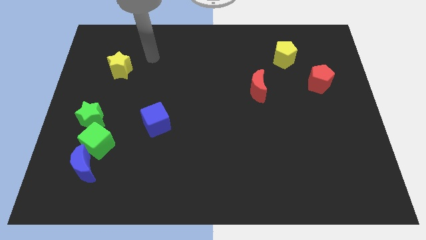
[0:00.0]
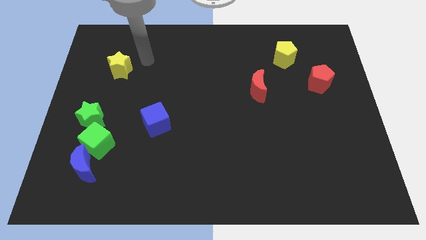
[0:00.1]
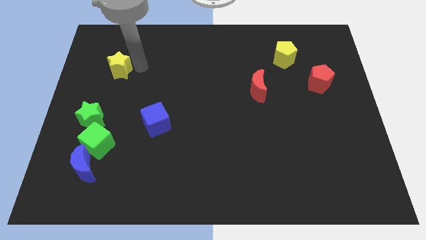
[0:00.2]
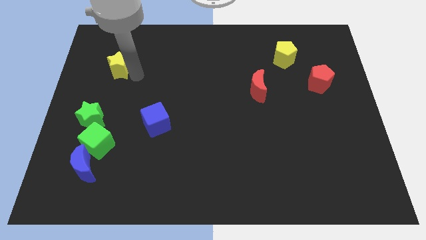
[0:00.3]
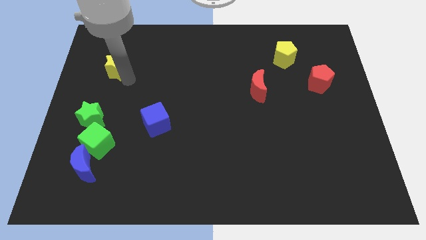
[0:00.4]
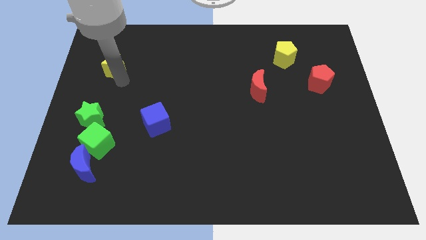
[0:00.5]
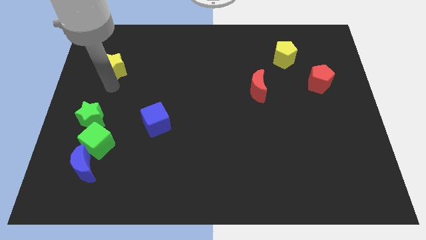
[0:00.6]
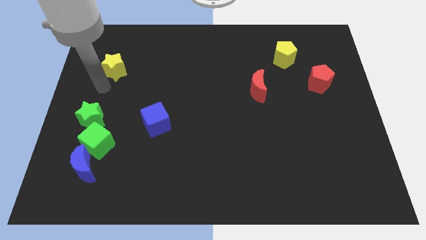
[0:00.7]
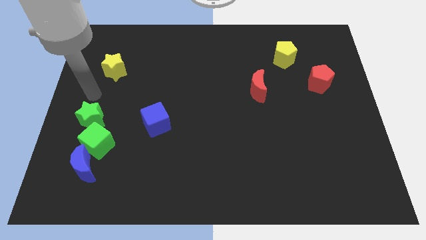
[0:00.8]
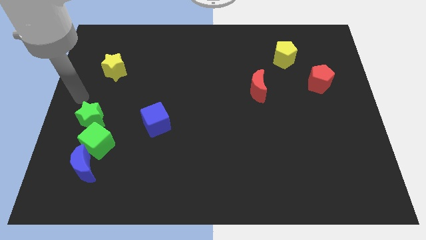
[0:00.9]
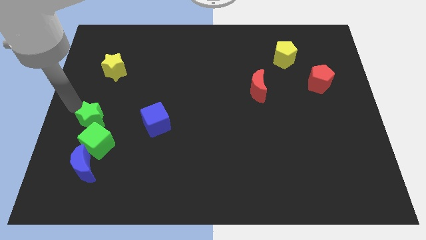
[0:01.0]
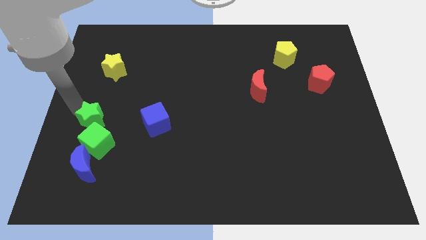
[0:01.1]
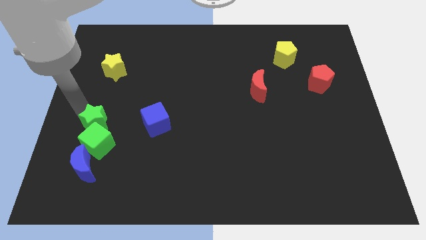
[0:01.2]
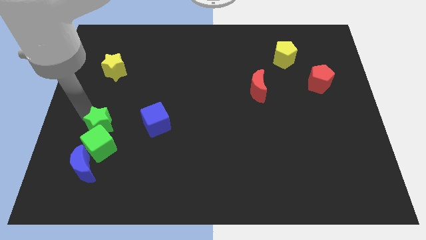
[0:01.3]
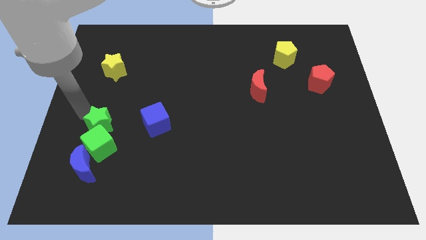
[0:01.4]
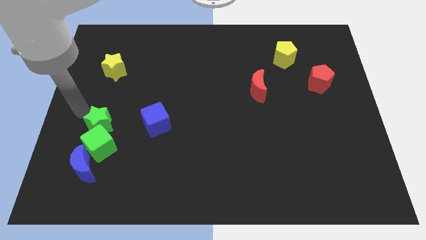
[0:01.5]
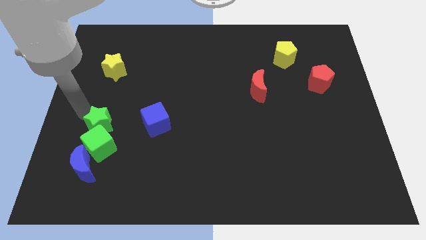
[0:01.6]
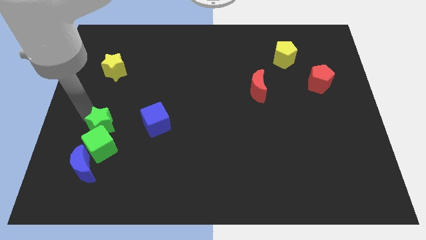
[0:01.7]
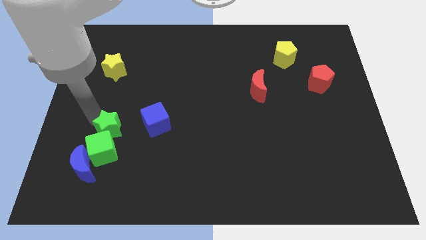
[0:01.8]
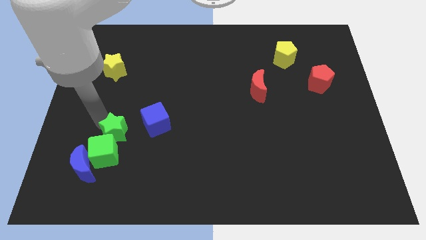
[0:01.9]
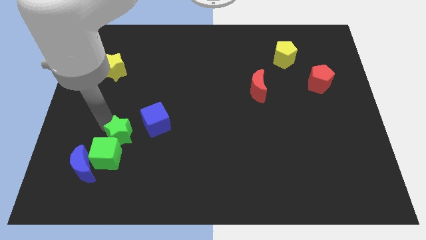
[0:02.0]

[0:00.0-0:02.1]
push the green star a little bit downwards and to the right diagonally

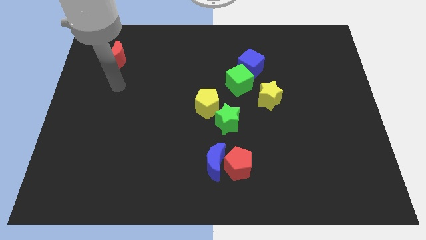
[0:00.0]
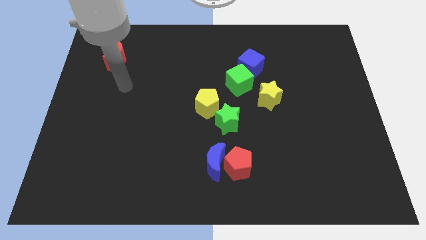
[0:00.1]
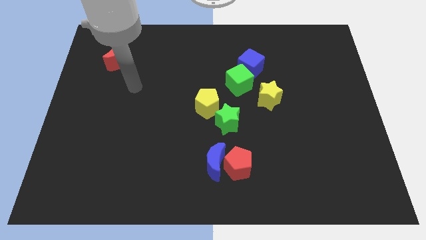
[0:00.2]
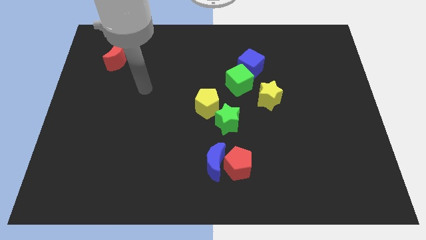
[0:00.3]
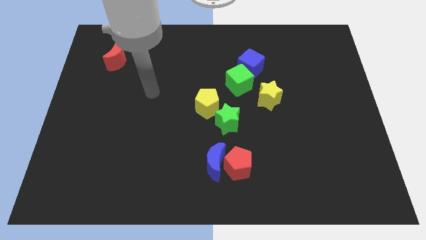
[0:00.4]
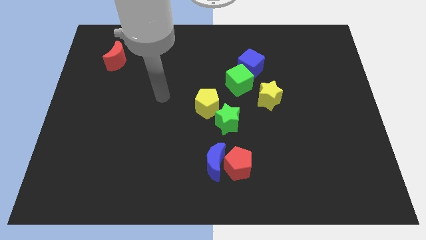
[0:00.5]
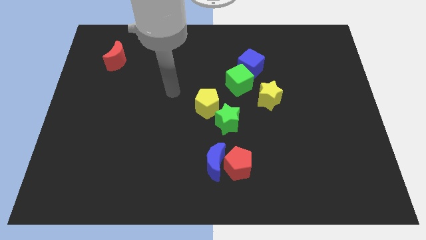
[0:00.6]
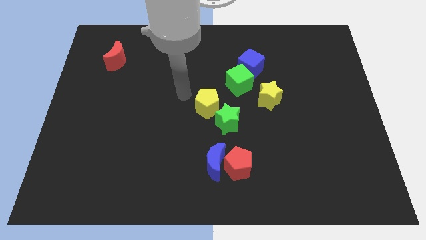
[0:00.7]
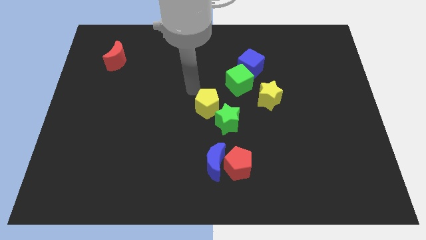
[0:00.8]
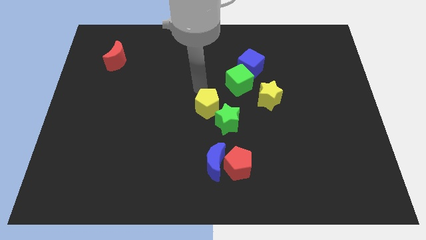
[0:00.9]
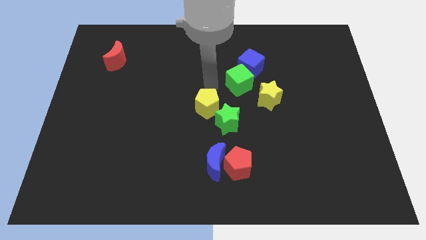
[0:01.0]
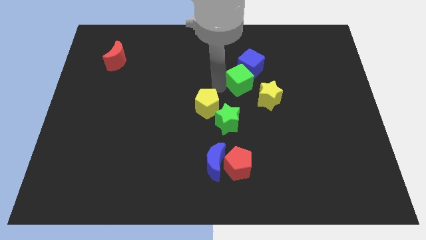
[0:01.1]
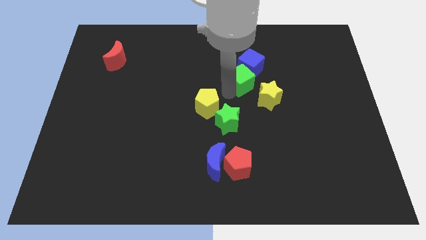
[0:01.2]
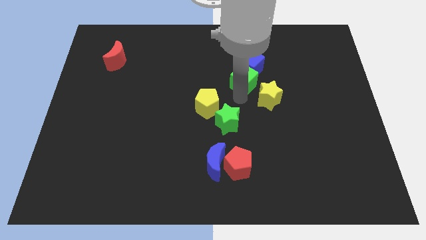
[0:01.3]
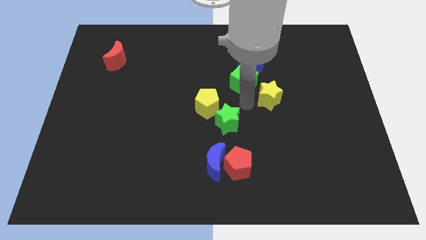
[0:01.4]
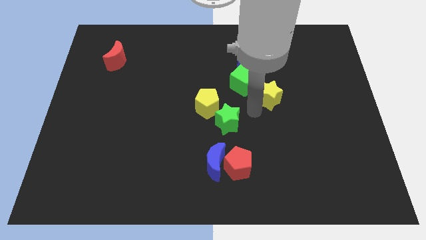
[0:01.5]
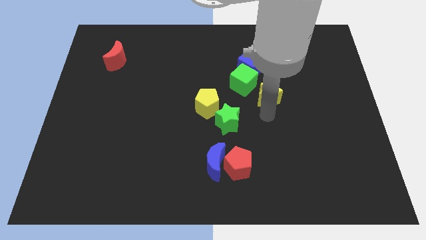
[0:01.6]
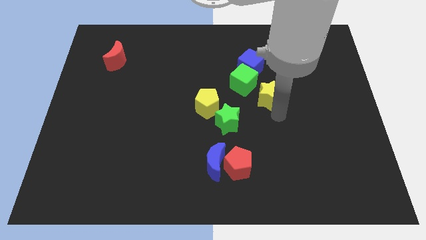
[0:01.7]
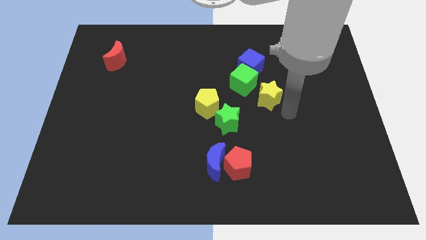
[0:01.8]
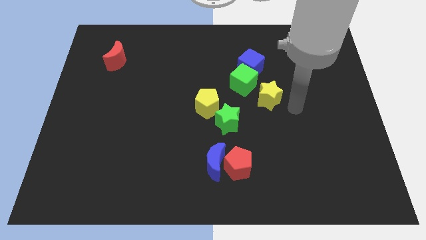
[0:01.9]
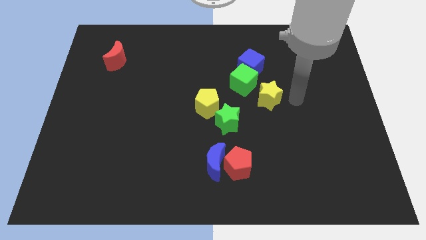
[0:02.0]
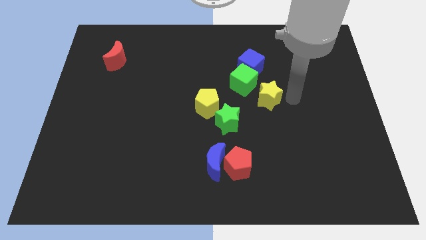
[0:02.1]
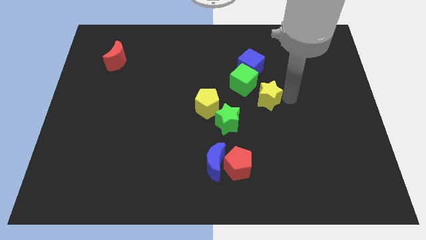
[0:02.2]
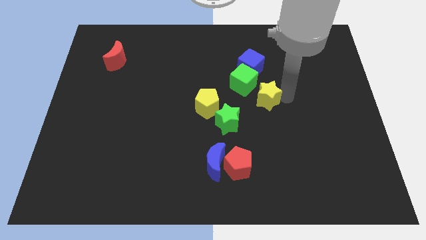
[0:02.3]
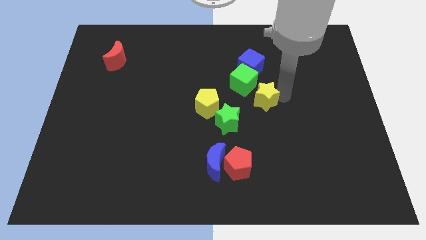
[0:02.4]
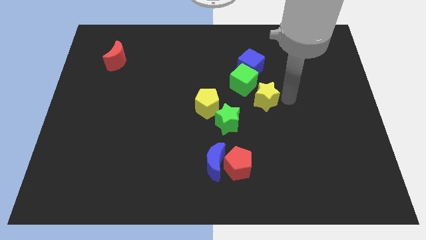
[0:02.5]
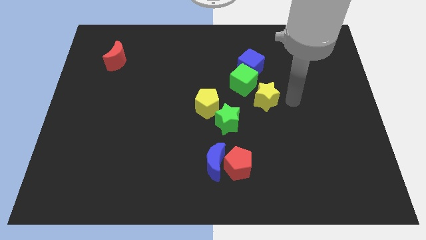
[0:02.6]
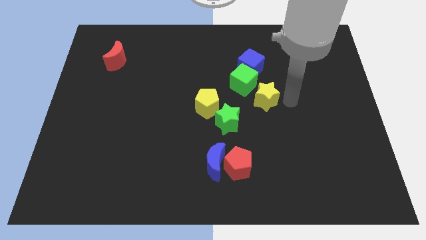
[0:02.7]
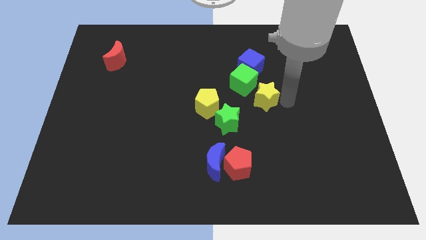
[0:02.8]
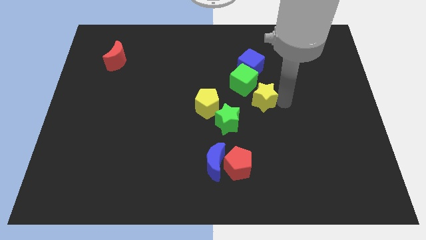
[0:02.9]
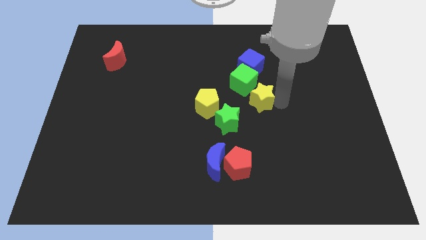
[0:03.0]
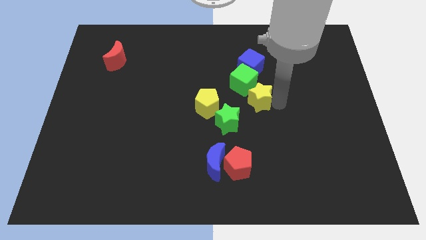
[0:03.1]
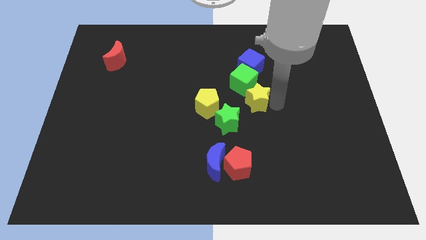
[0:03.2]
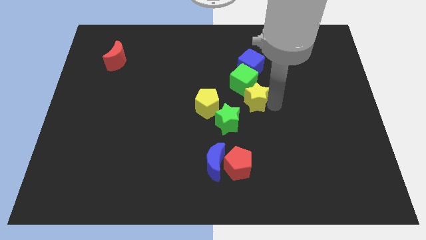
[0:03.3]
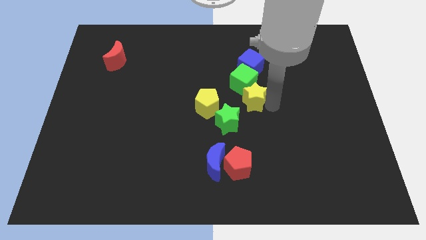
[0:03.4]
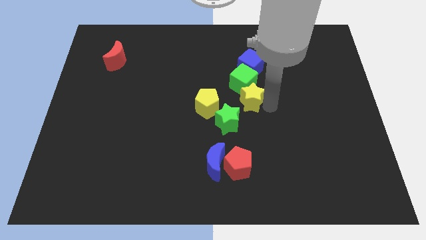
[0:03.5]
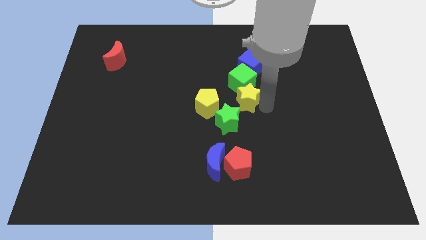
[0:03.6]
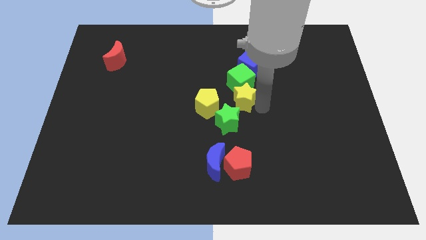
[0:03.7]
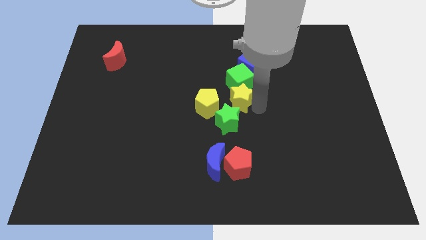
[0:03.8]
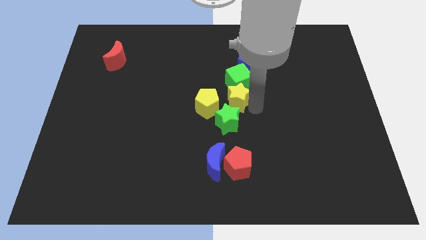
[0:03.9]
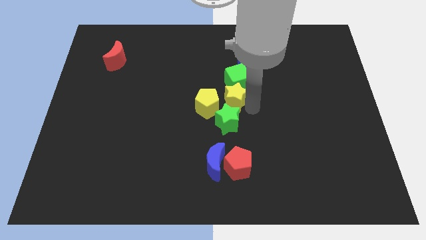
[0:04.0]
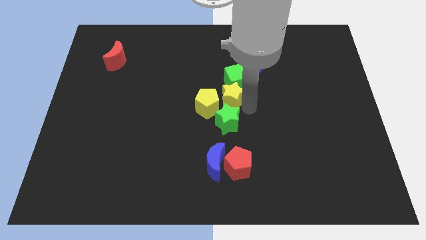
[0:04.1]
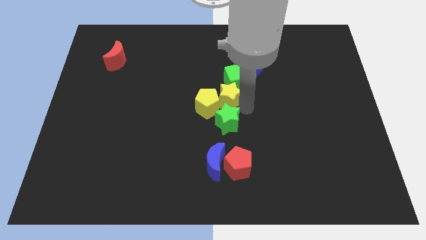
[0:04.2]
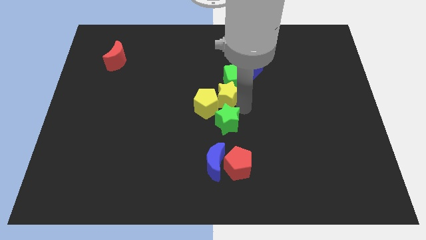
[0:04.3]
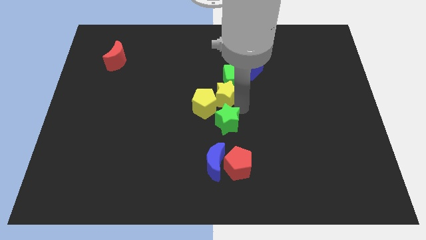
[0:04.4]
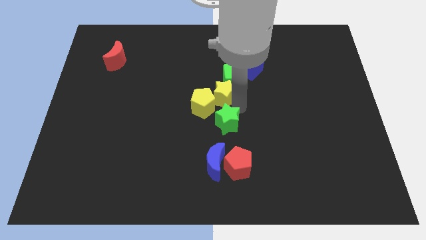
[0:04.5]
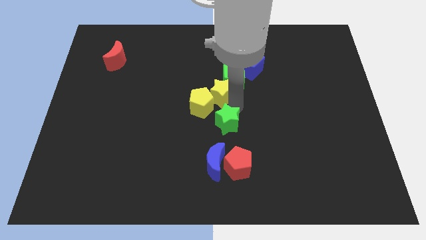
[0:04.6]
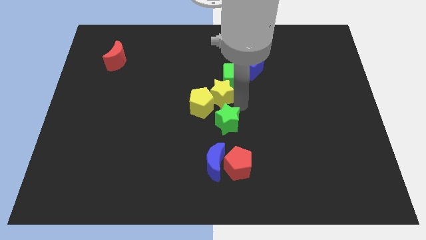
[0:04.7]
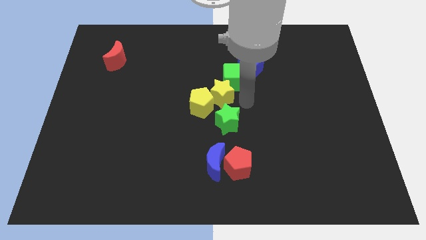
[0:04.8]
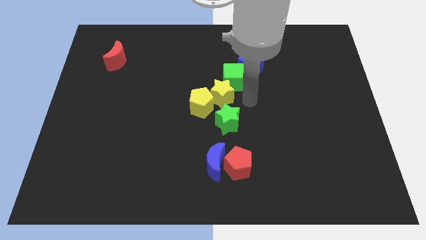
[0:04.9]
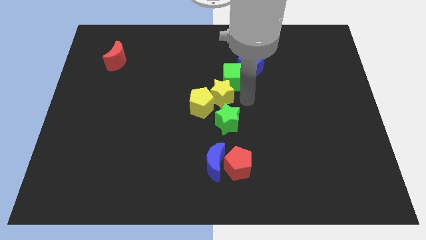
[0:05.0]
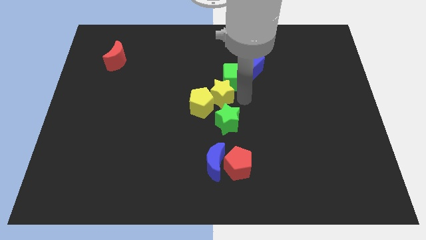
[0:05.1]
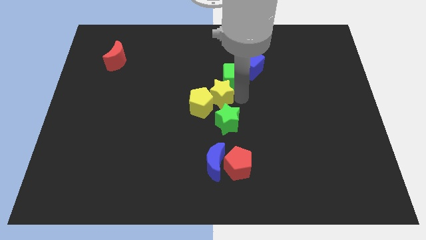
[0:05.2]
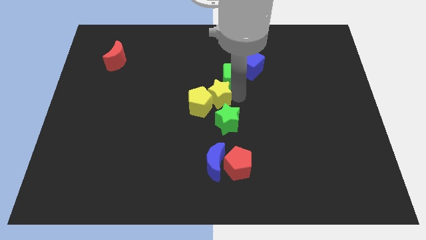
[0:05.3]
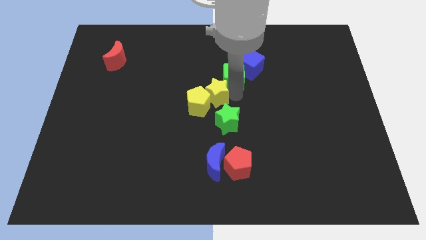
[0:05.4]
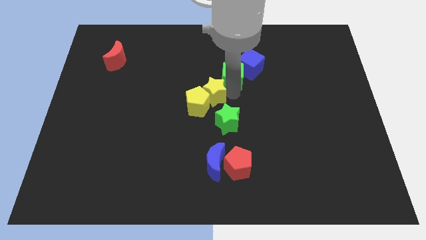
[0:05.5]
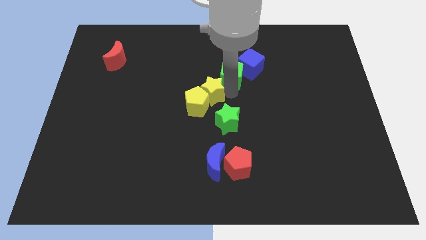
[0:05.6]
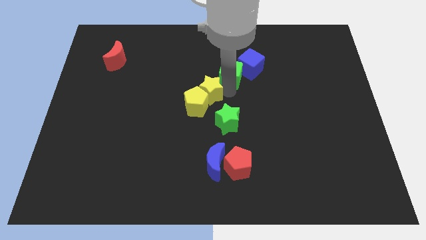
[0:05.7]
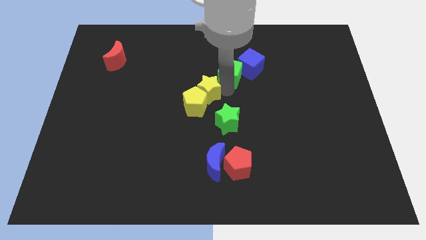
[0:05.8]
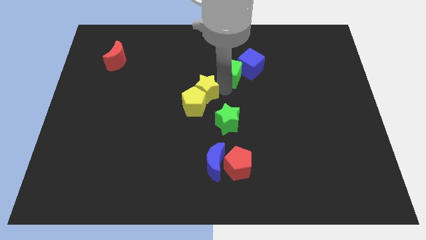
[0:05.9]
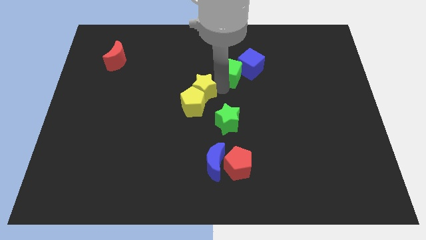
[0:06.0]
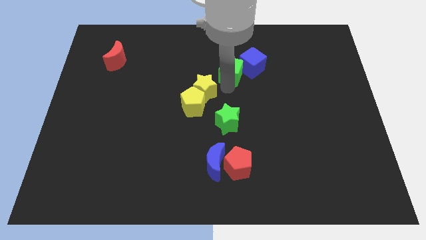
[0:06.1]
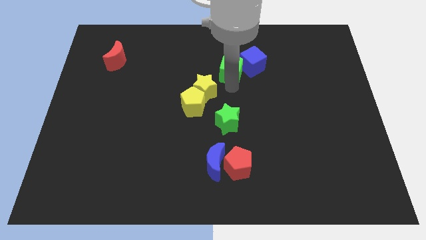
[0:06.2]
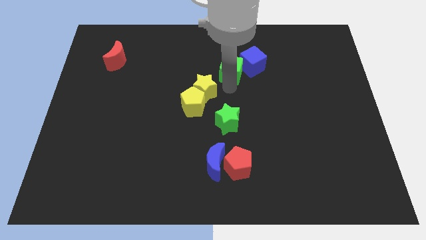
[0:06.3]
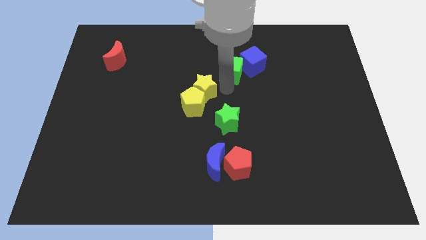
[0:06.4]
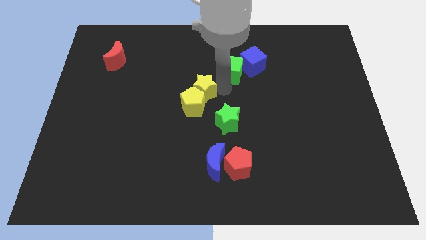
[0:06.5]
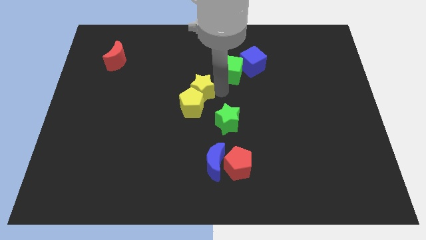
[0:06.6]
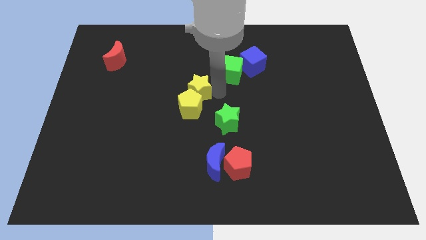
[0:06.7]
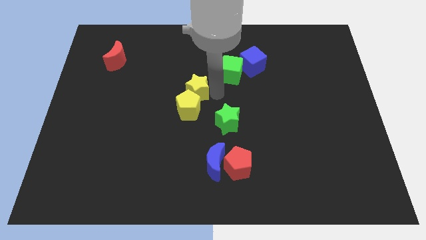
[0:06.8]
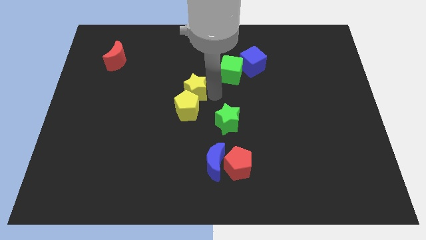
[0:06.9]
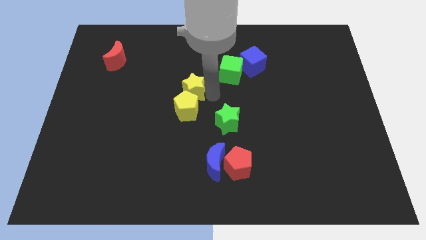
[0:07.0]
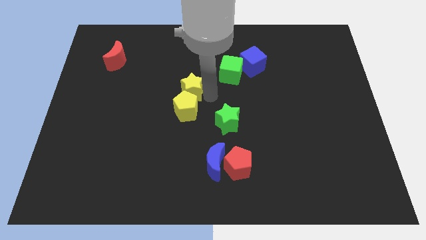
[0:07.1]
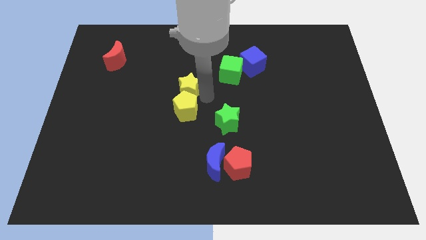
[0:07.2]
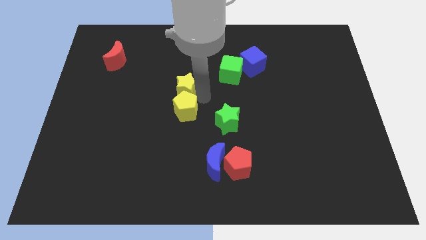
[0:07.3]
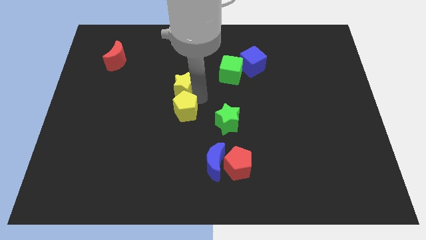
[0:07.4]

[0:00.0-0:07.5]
move the yellow star left
